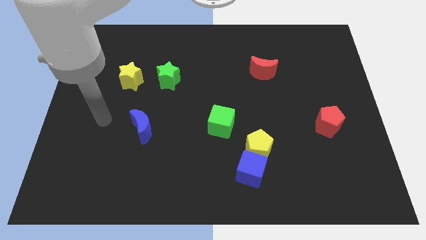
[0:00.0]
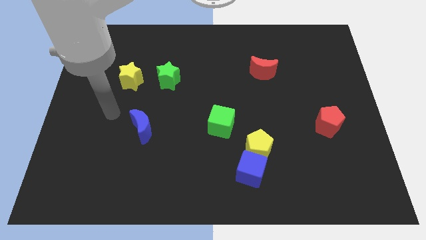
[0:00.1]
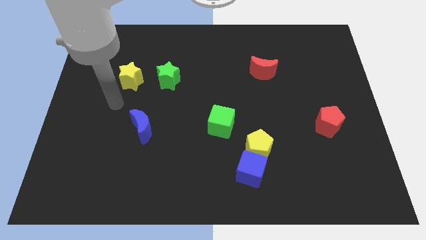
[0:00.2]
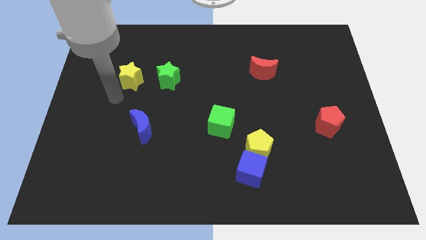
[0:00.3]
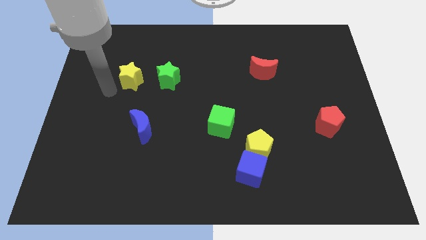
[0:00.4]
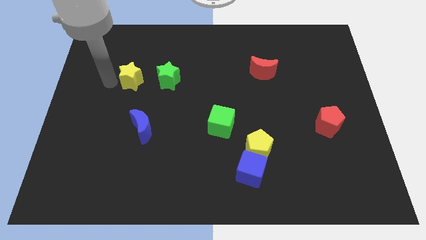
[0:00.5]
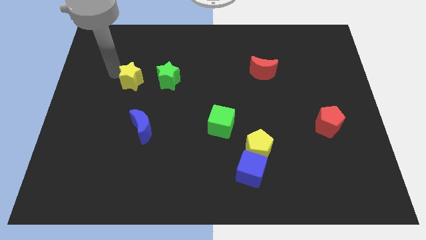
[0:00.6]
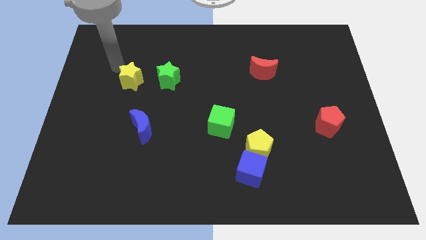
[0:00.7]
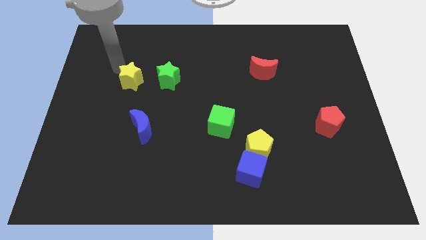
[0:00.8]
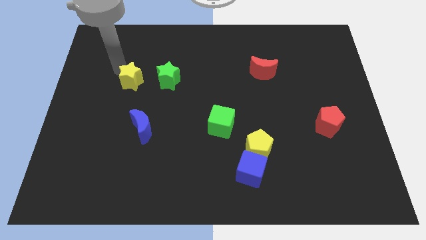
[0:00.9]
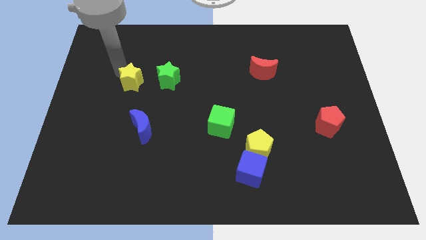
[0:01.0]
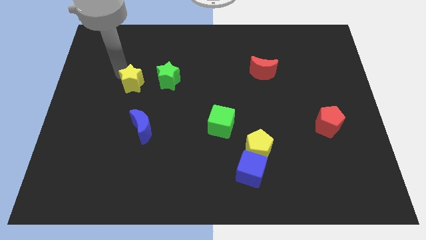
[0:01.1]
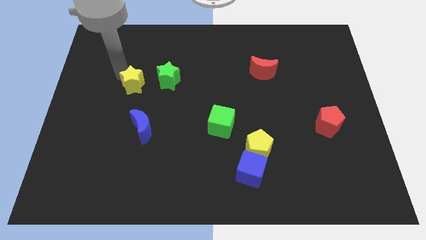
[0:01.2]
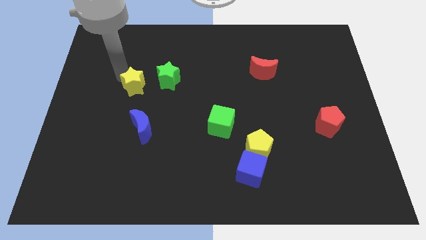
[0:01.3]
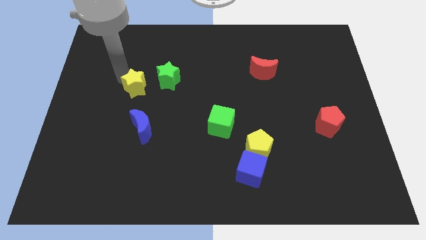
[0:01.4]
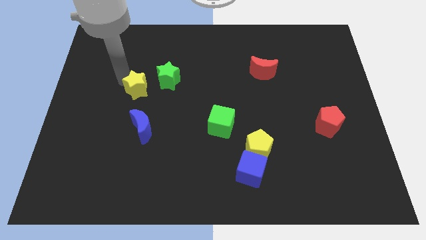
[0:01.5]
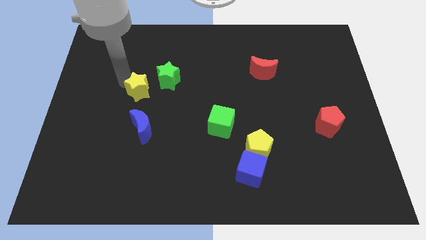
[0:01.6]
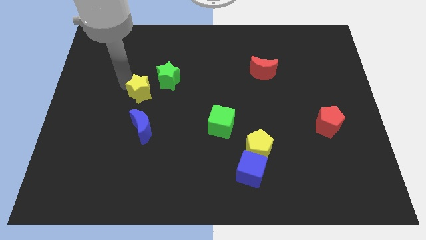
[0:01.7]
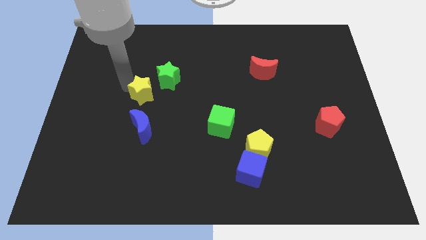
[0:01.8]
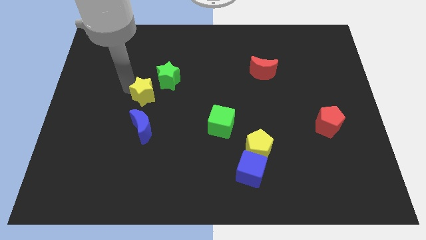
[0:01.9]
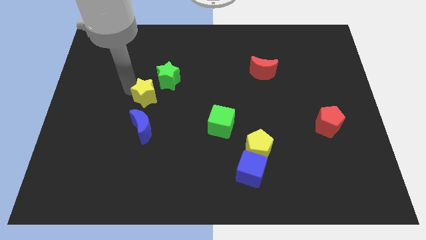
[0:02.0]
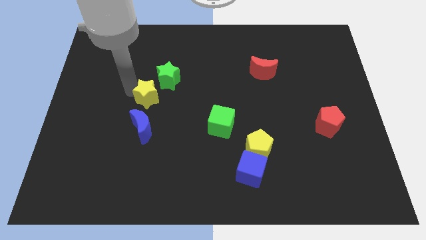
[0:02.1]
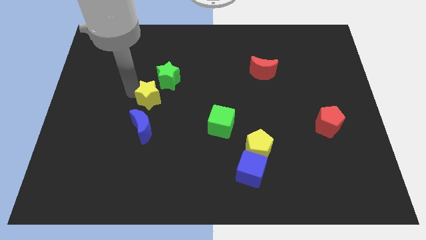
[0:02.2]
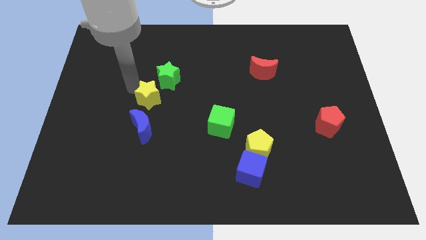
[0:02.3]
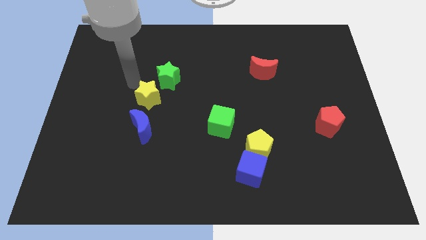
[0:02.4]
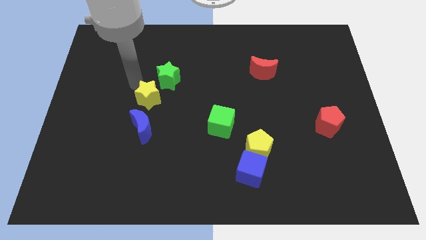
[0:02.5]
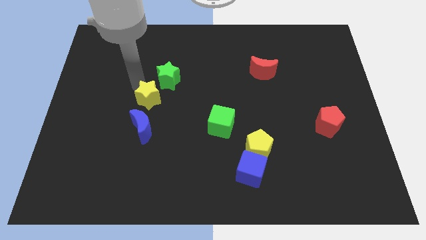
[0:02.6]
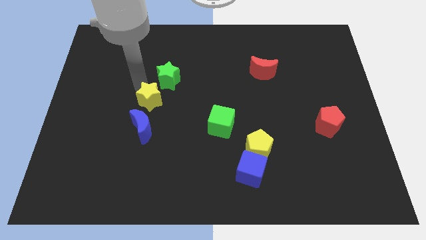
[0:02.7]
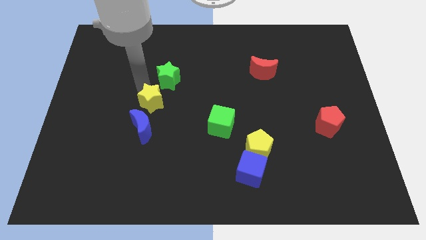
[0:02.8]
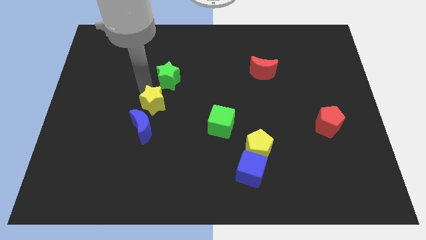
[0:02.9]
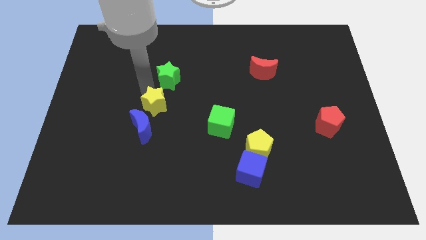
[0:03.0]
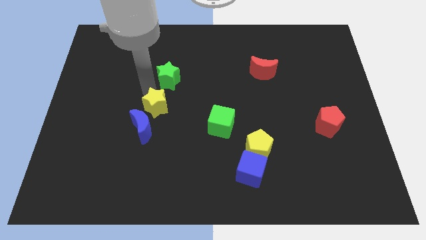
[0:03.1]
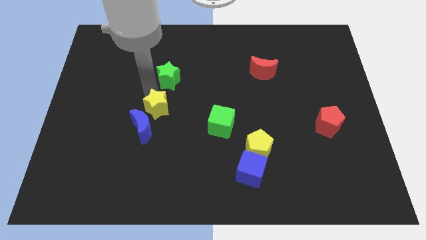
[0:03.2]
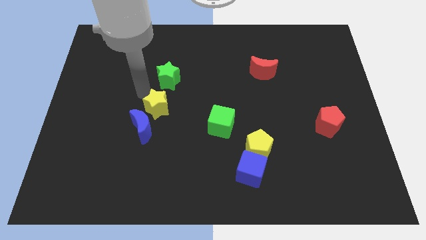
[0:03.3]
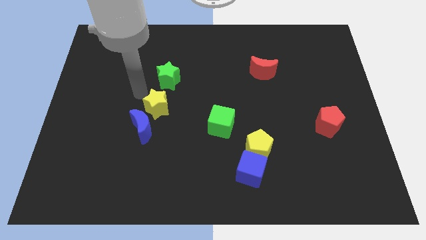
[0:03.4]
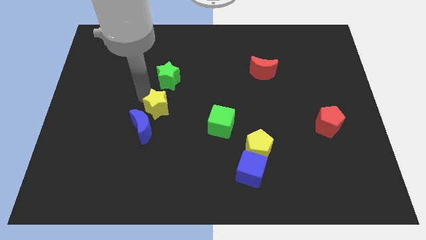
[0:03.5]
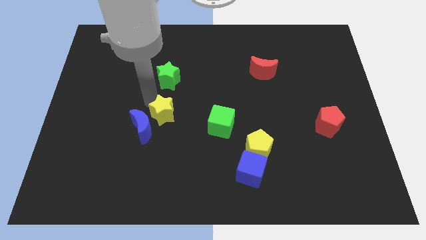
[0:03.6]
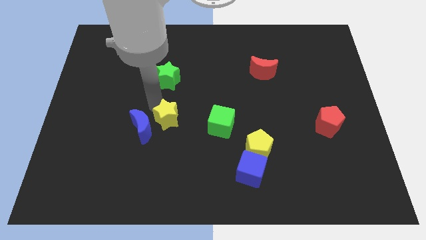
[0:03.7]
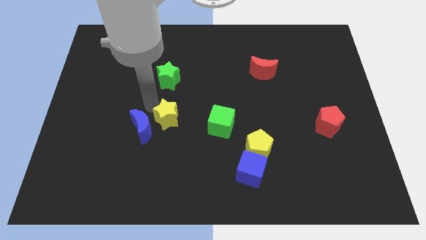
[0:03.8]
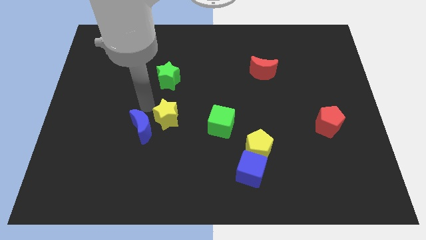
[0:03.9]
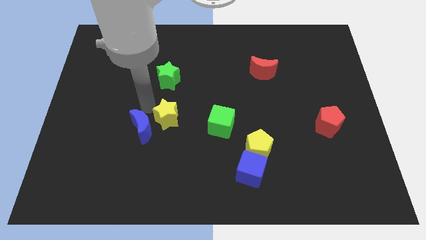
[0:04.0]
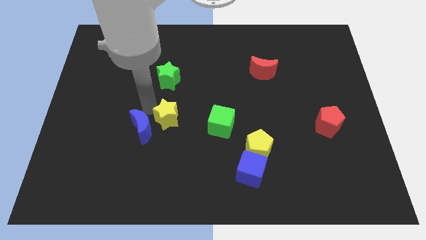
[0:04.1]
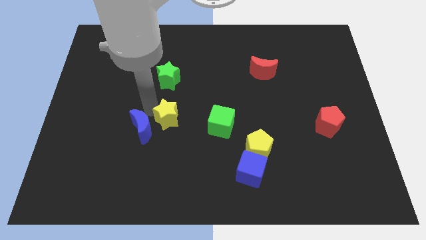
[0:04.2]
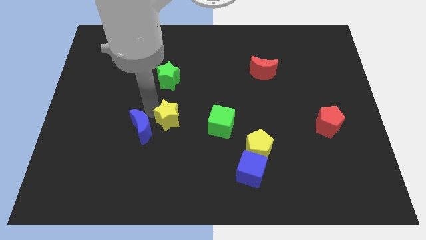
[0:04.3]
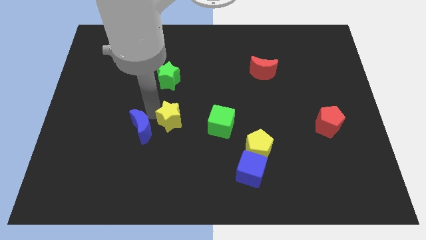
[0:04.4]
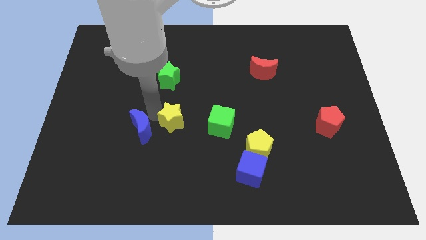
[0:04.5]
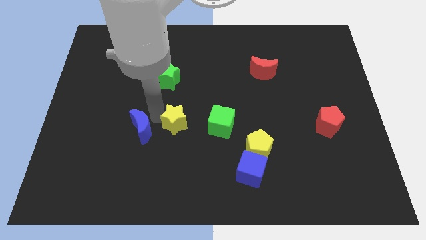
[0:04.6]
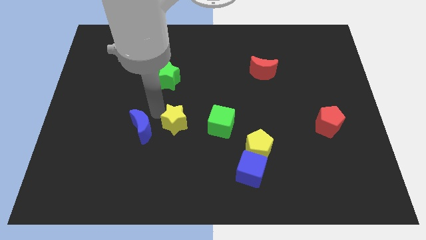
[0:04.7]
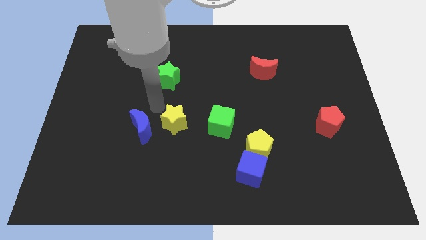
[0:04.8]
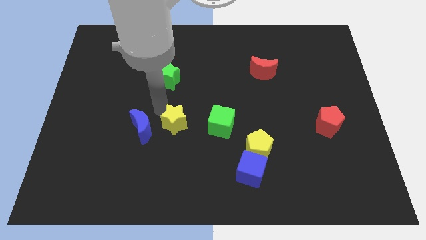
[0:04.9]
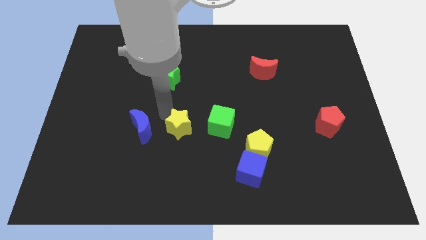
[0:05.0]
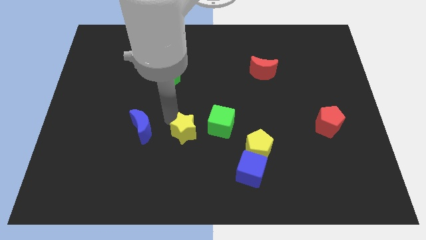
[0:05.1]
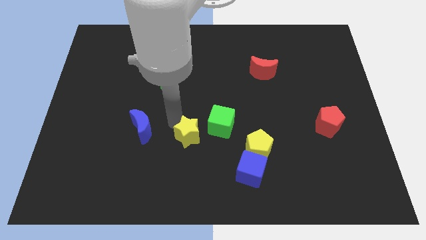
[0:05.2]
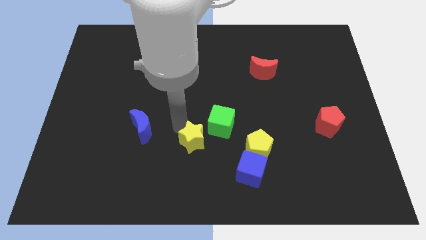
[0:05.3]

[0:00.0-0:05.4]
slide the yellow star left of the yellow pentagon

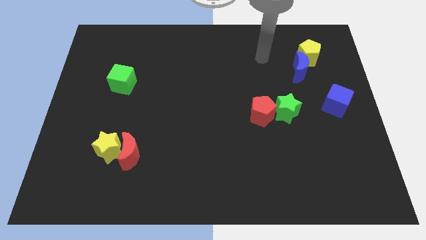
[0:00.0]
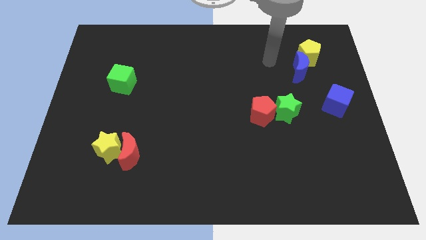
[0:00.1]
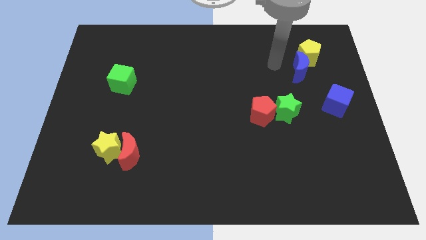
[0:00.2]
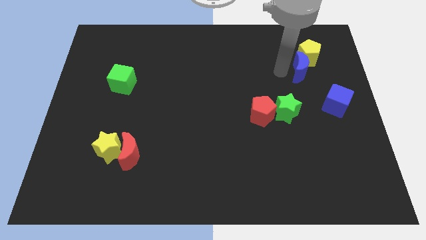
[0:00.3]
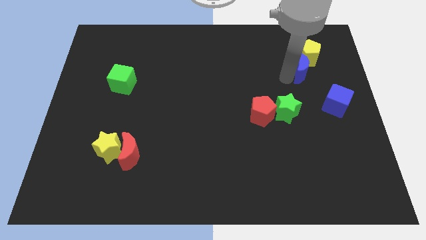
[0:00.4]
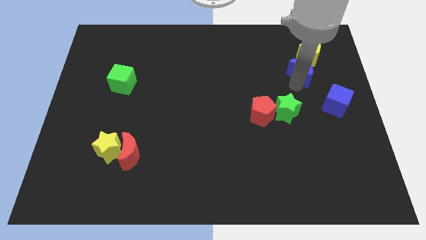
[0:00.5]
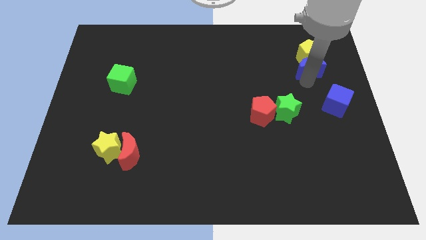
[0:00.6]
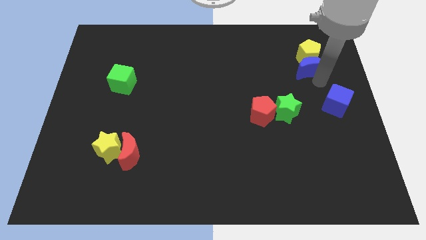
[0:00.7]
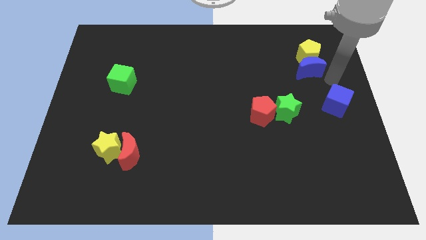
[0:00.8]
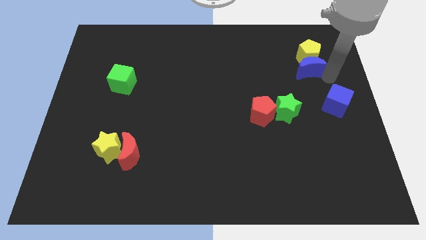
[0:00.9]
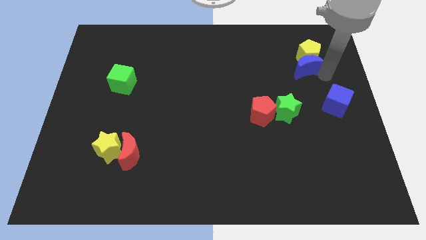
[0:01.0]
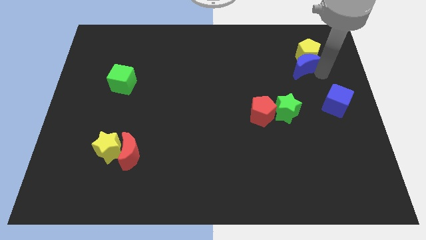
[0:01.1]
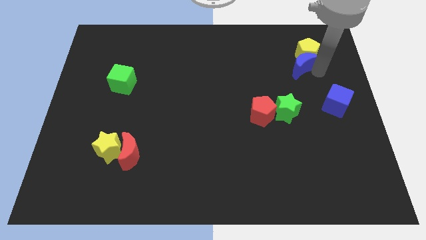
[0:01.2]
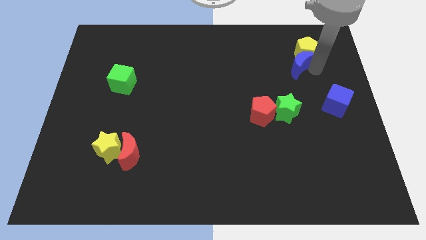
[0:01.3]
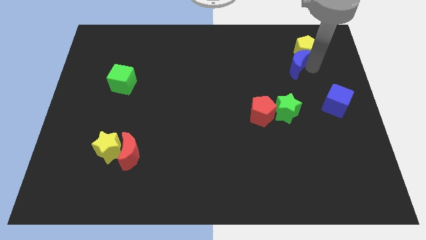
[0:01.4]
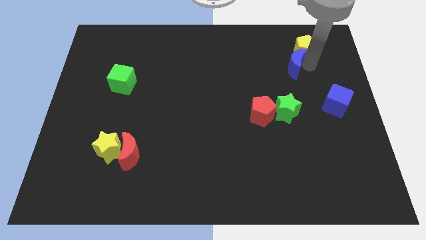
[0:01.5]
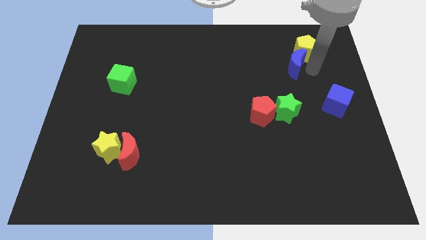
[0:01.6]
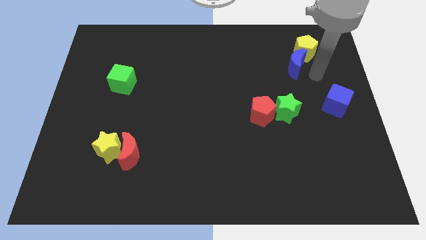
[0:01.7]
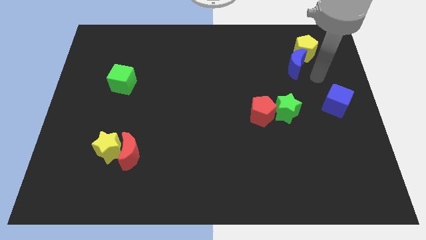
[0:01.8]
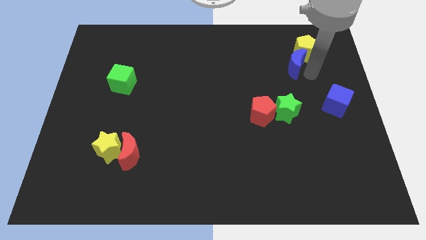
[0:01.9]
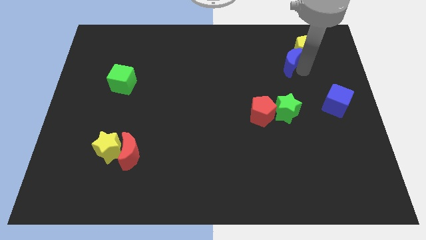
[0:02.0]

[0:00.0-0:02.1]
move the blue moon just left of the yellow pentagon
